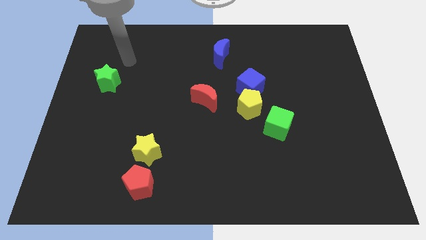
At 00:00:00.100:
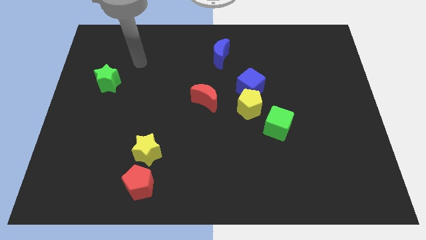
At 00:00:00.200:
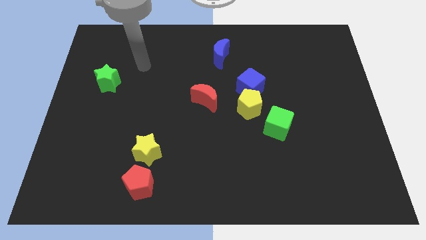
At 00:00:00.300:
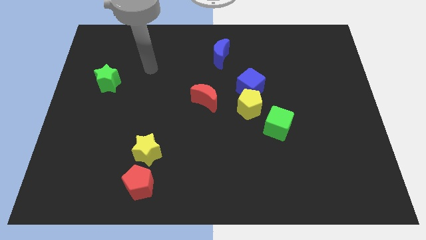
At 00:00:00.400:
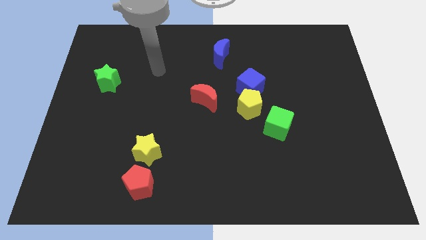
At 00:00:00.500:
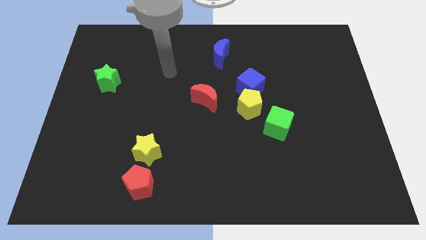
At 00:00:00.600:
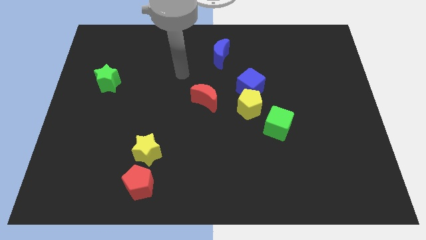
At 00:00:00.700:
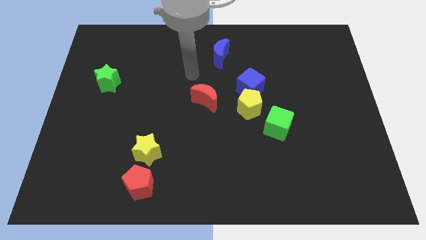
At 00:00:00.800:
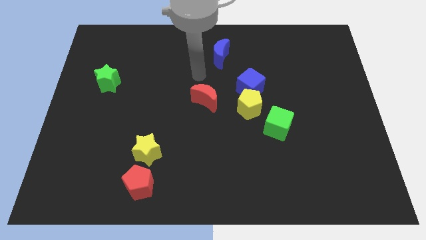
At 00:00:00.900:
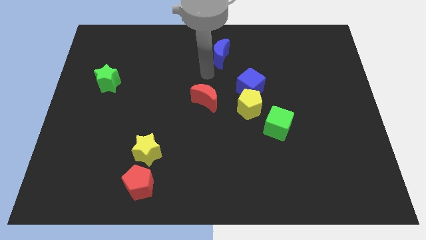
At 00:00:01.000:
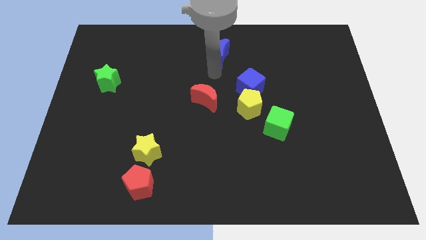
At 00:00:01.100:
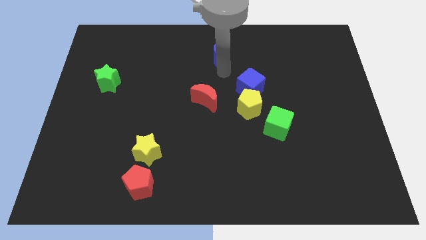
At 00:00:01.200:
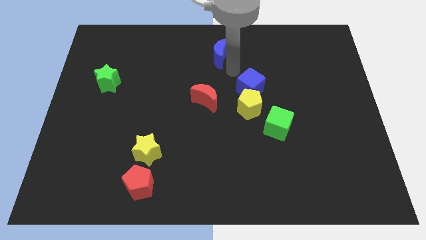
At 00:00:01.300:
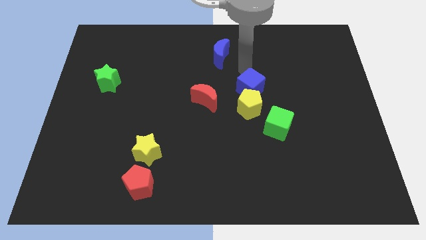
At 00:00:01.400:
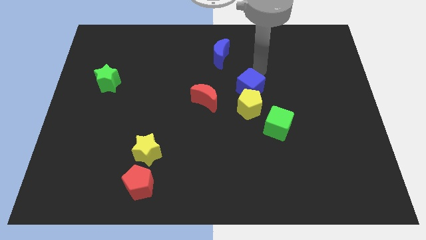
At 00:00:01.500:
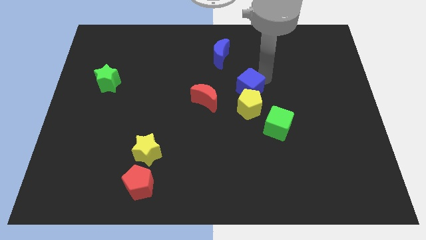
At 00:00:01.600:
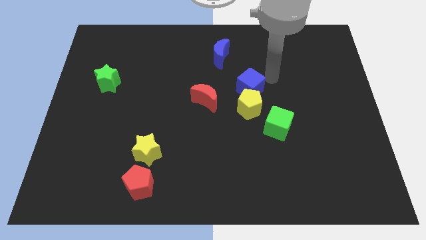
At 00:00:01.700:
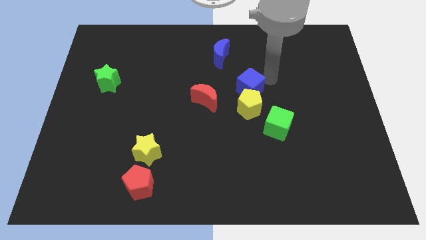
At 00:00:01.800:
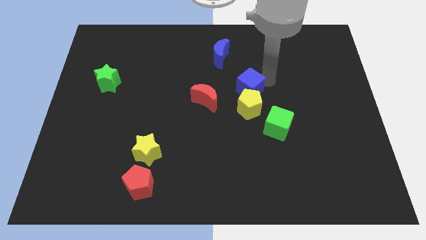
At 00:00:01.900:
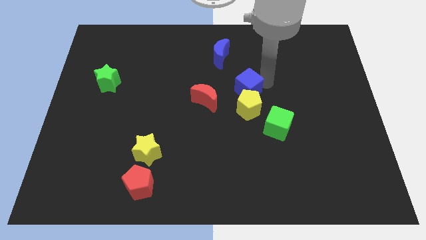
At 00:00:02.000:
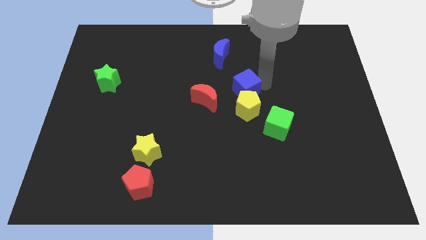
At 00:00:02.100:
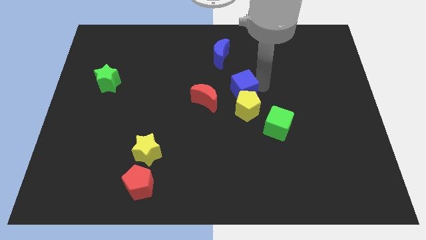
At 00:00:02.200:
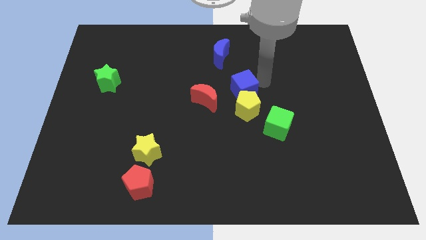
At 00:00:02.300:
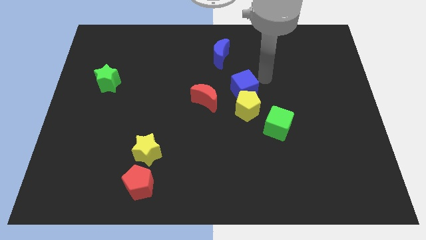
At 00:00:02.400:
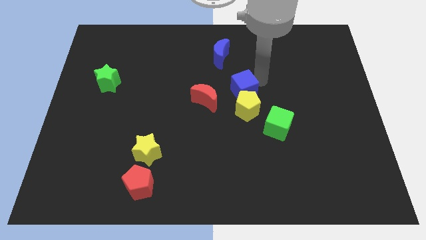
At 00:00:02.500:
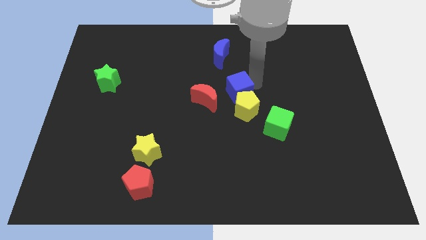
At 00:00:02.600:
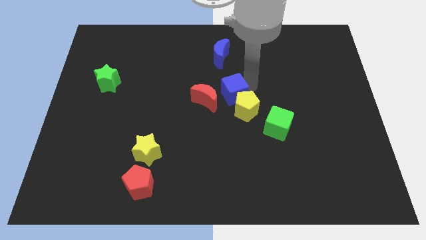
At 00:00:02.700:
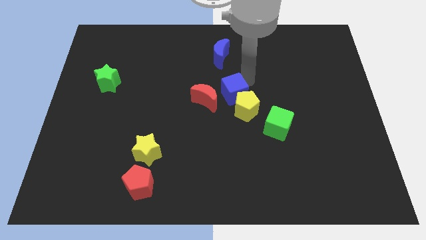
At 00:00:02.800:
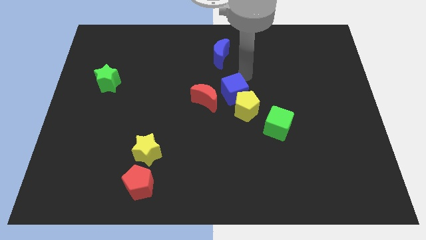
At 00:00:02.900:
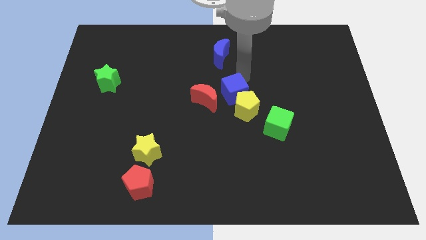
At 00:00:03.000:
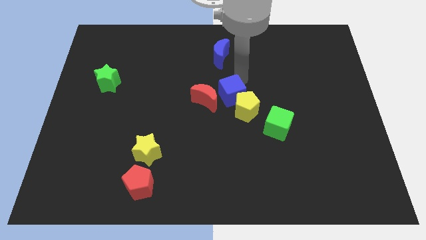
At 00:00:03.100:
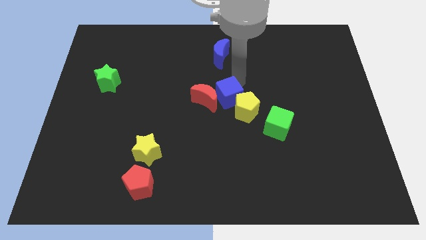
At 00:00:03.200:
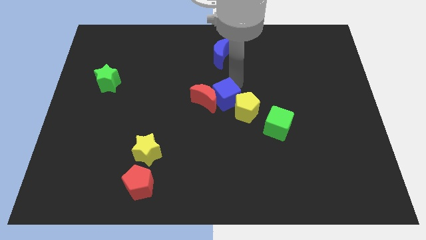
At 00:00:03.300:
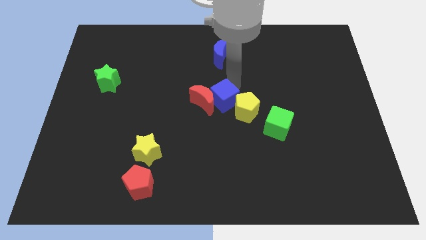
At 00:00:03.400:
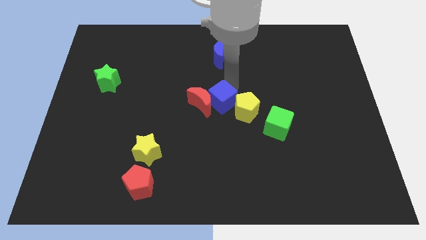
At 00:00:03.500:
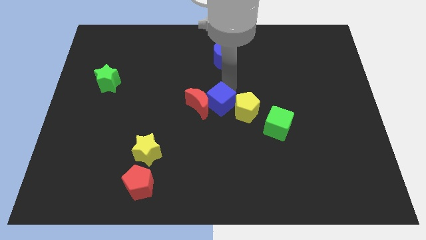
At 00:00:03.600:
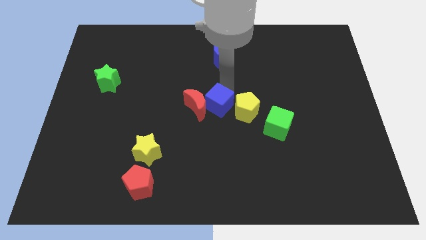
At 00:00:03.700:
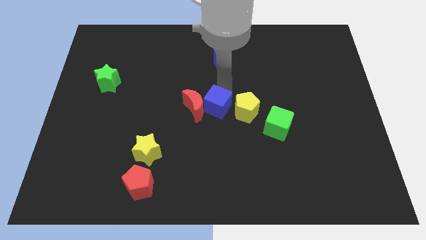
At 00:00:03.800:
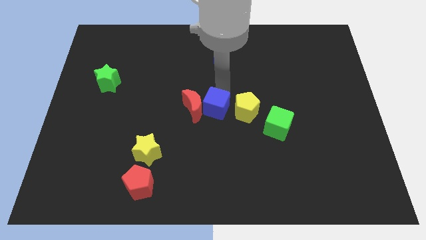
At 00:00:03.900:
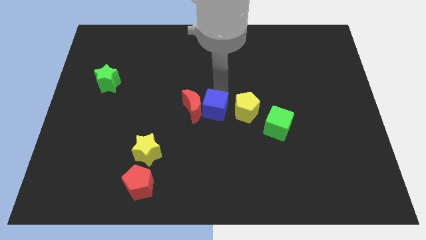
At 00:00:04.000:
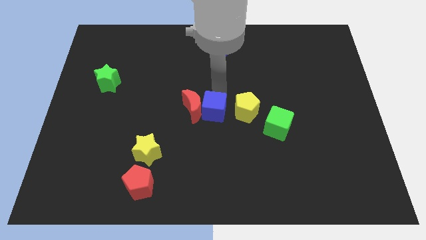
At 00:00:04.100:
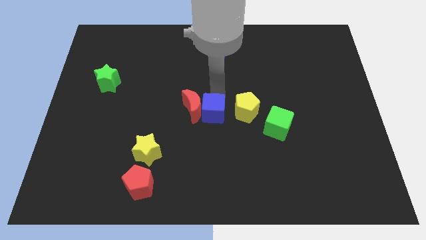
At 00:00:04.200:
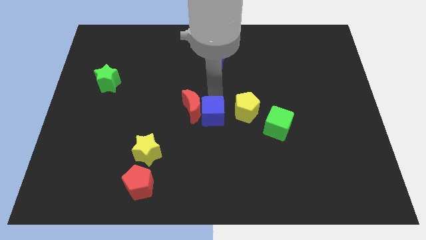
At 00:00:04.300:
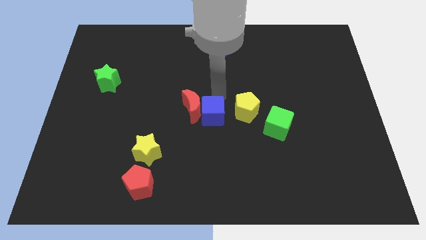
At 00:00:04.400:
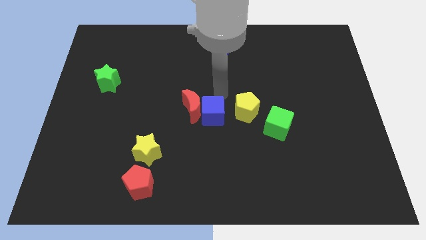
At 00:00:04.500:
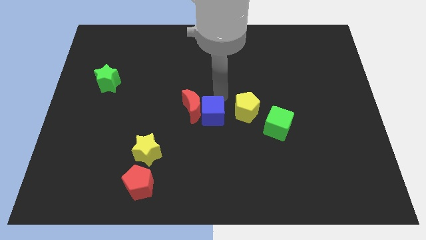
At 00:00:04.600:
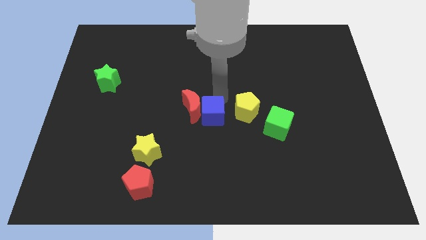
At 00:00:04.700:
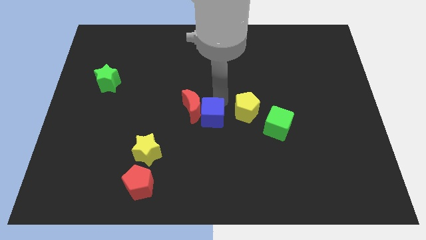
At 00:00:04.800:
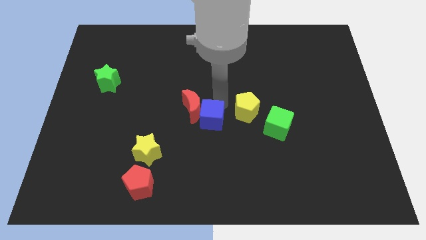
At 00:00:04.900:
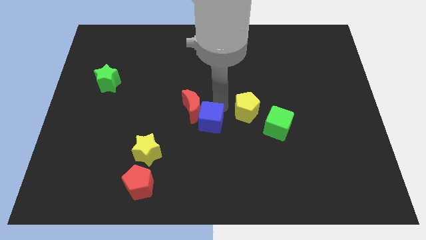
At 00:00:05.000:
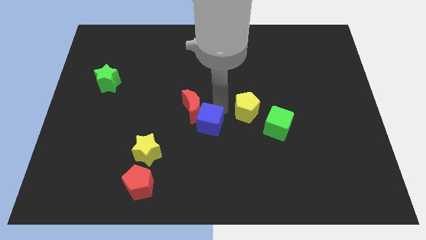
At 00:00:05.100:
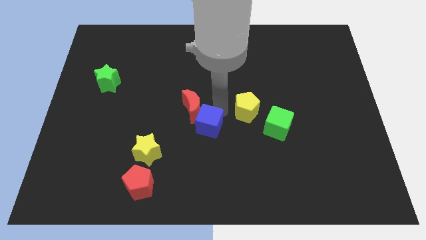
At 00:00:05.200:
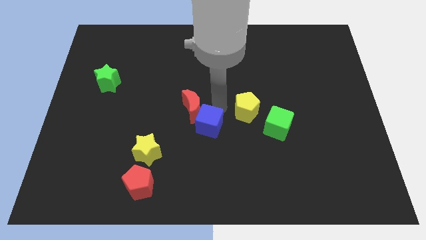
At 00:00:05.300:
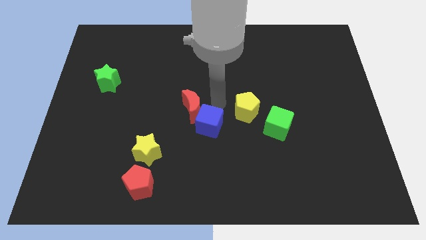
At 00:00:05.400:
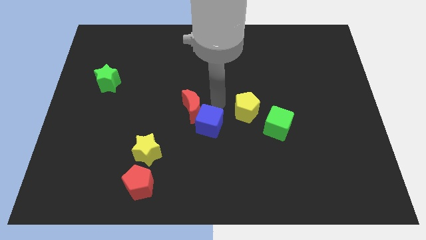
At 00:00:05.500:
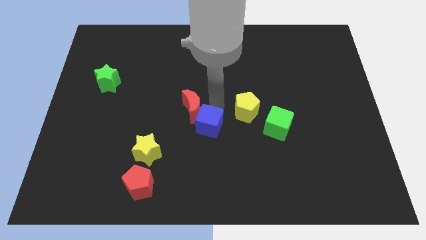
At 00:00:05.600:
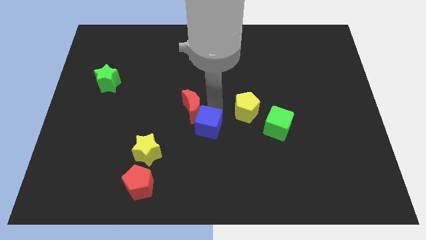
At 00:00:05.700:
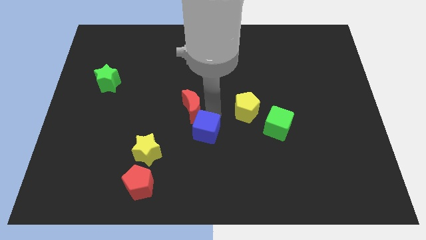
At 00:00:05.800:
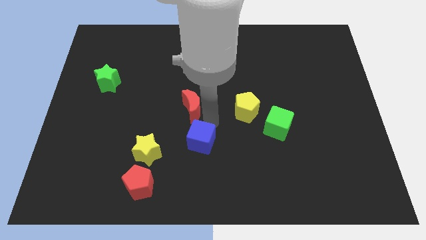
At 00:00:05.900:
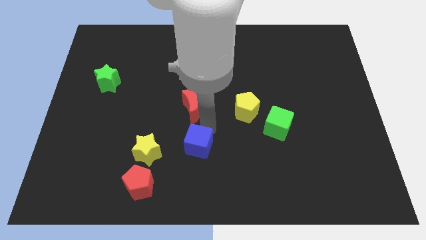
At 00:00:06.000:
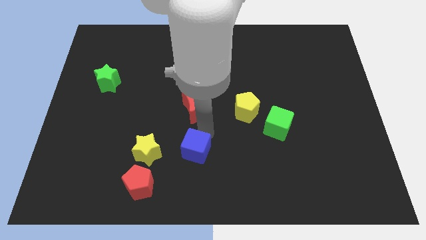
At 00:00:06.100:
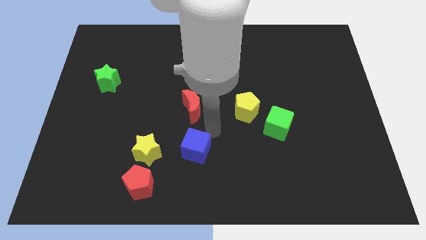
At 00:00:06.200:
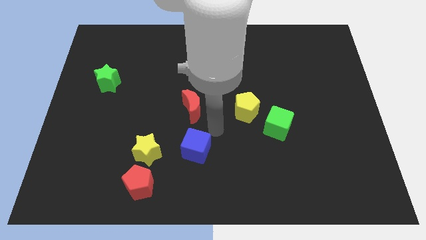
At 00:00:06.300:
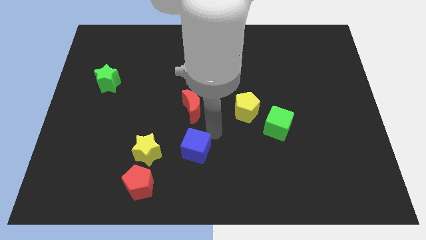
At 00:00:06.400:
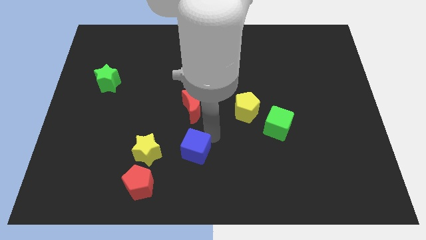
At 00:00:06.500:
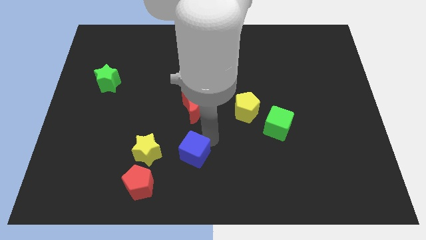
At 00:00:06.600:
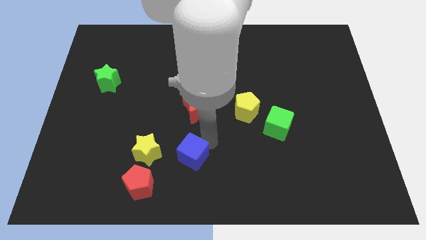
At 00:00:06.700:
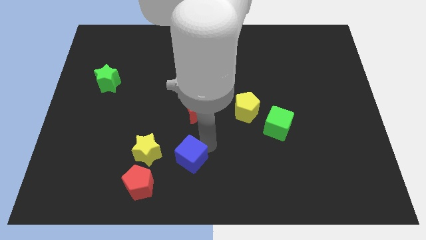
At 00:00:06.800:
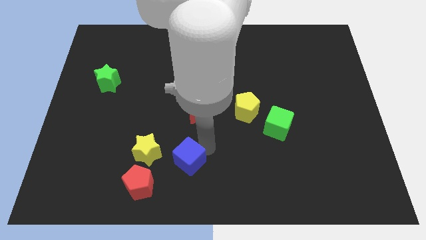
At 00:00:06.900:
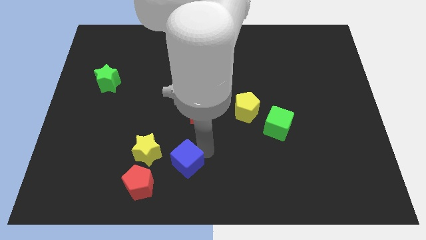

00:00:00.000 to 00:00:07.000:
put the blue cube to the bottom right side of the yellow star

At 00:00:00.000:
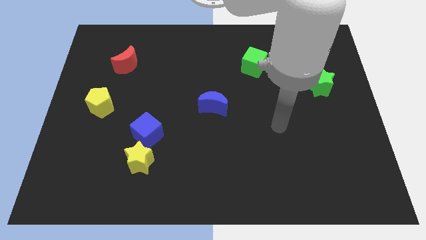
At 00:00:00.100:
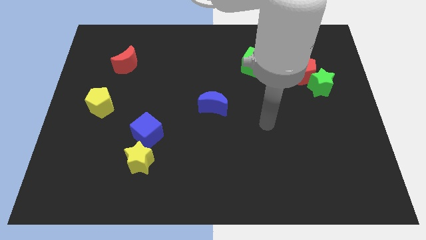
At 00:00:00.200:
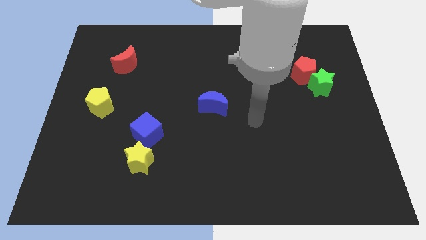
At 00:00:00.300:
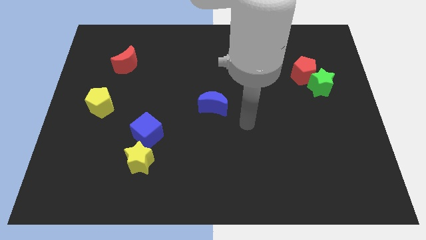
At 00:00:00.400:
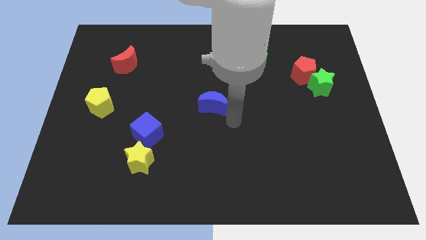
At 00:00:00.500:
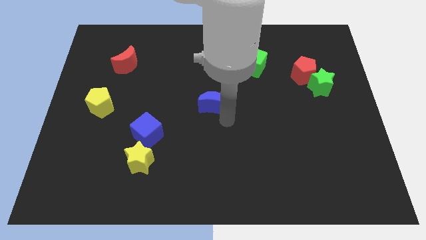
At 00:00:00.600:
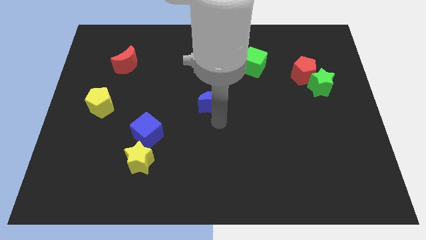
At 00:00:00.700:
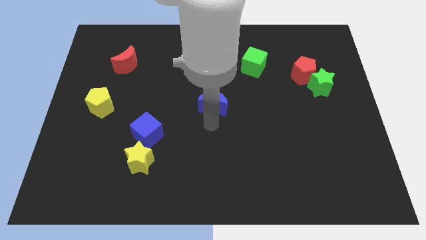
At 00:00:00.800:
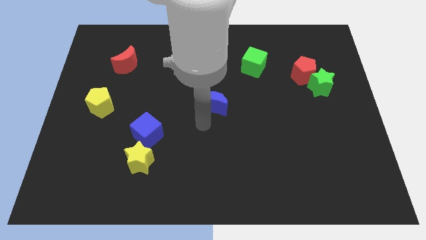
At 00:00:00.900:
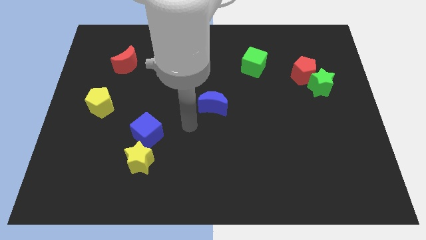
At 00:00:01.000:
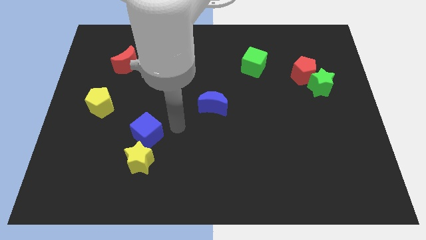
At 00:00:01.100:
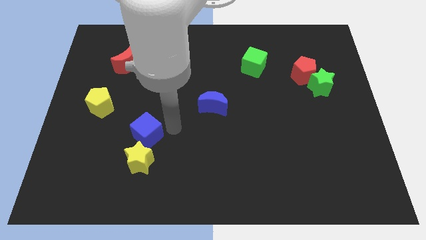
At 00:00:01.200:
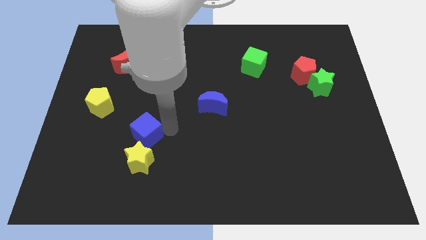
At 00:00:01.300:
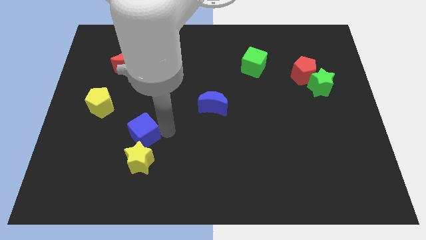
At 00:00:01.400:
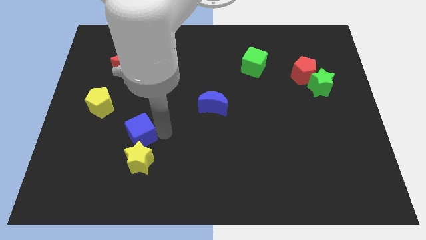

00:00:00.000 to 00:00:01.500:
push the blue cube to the top left side of the yellow star
